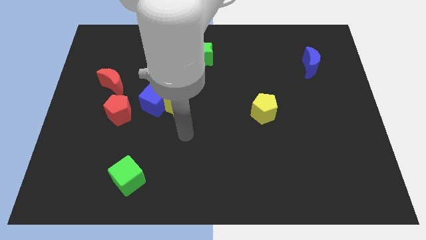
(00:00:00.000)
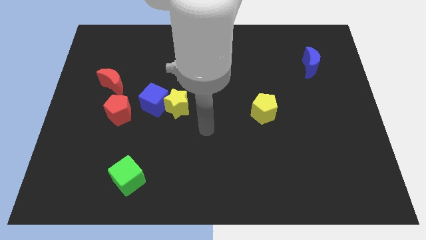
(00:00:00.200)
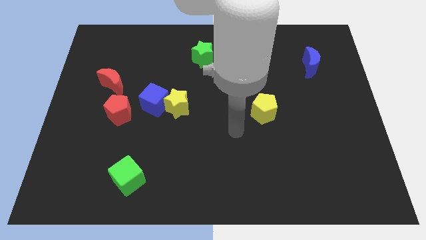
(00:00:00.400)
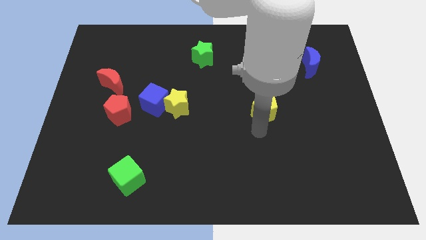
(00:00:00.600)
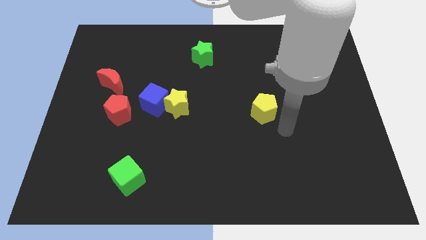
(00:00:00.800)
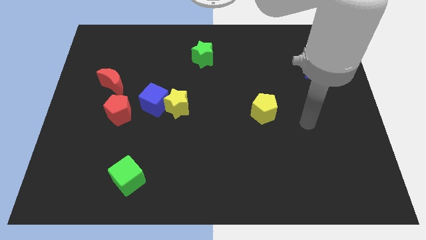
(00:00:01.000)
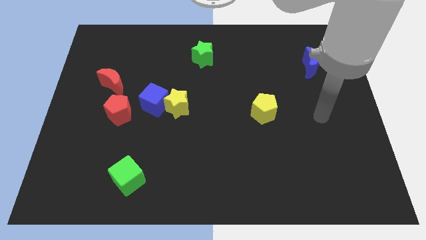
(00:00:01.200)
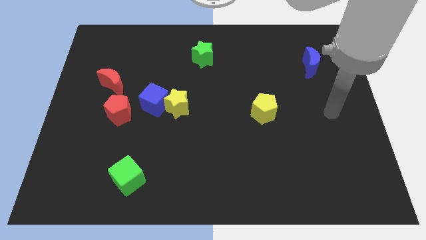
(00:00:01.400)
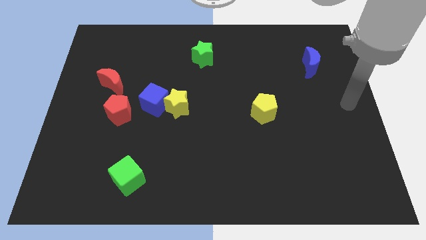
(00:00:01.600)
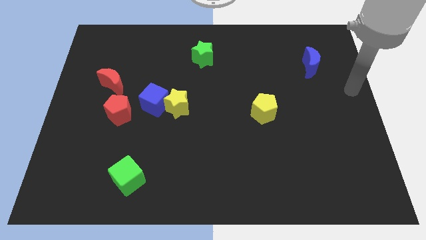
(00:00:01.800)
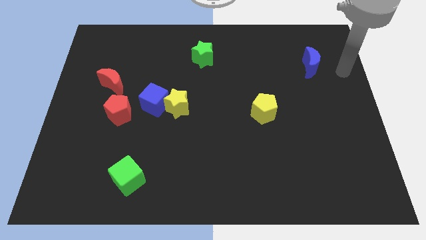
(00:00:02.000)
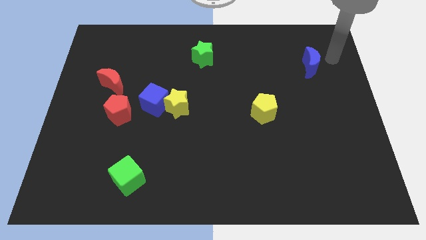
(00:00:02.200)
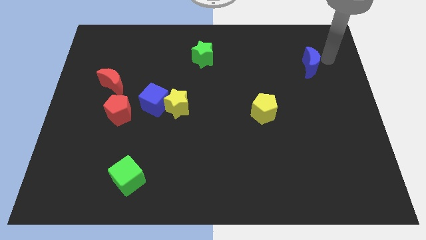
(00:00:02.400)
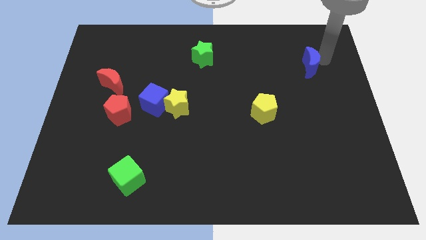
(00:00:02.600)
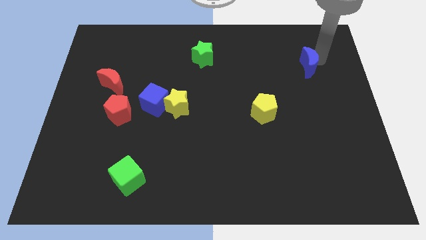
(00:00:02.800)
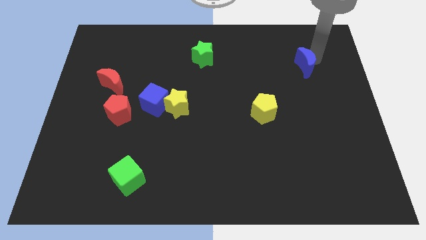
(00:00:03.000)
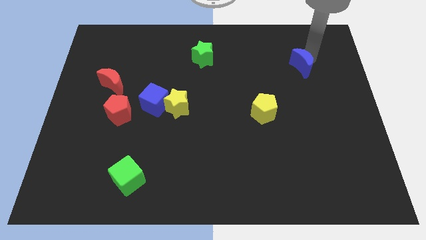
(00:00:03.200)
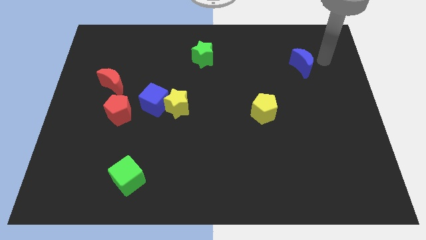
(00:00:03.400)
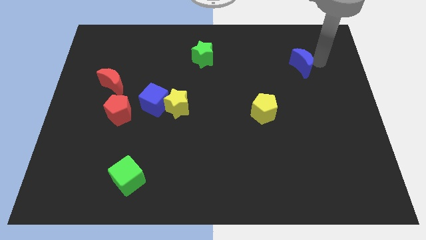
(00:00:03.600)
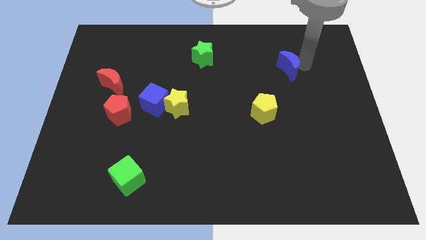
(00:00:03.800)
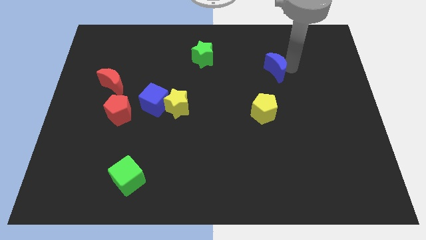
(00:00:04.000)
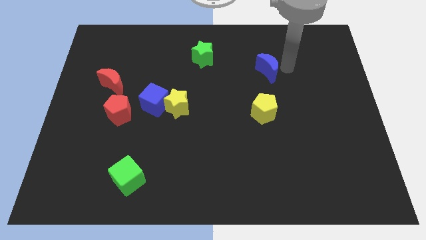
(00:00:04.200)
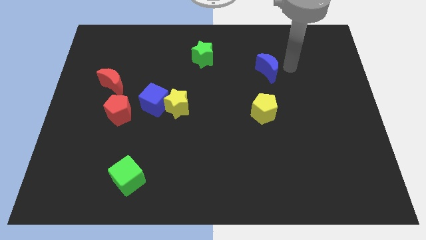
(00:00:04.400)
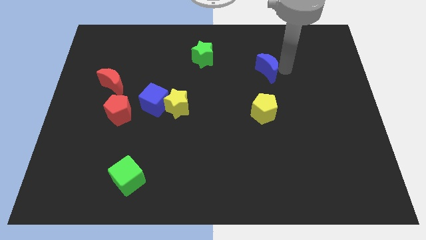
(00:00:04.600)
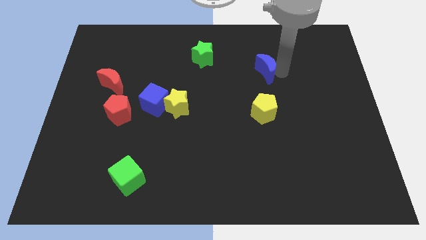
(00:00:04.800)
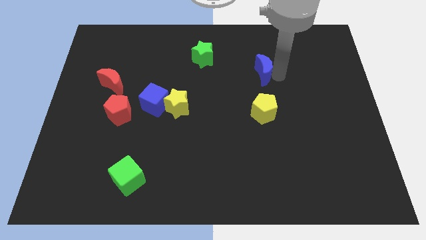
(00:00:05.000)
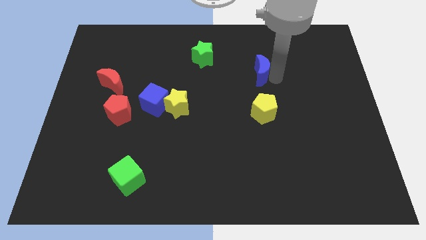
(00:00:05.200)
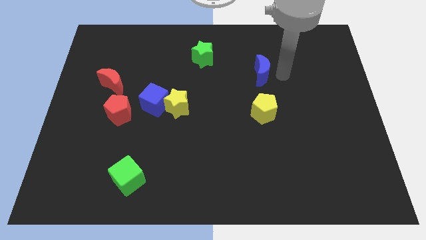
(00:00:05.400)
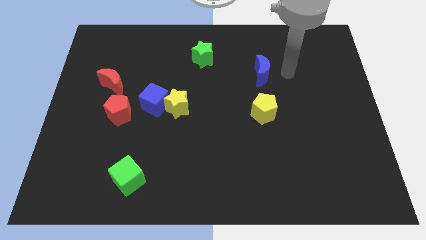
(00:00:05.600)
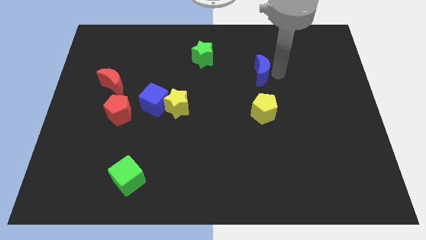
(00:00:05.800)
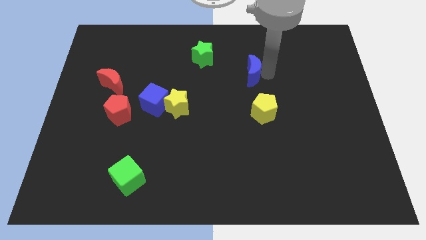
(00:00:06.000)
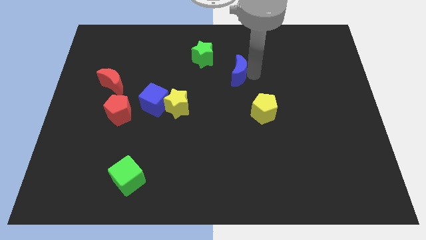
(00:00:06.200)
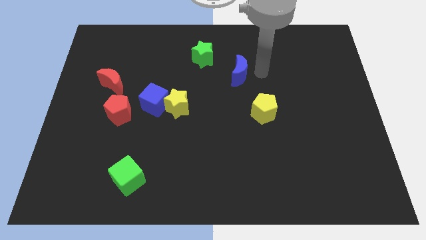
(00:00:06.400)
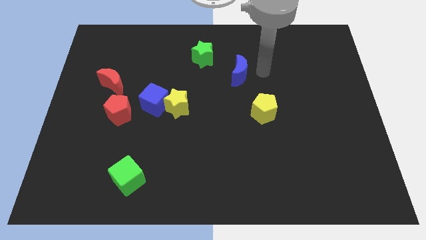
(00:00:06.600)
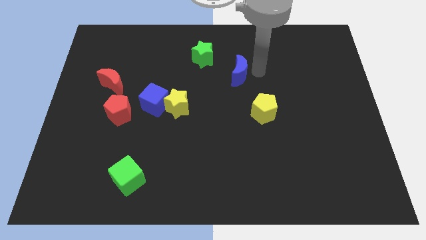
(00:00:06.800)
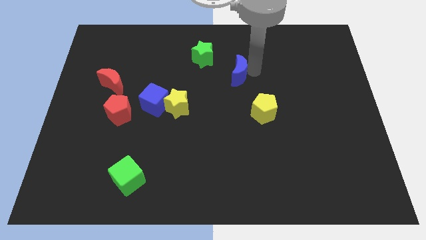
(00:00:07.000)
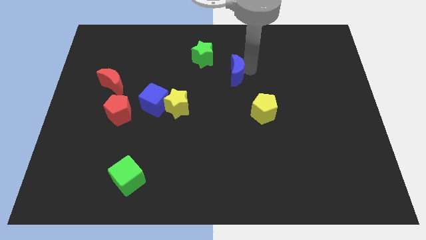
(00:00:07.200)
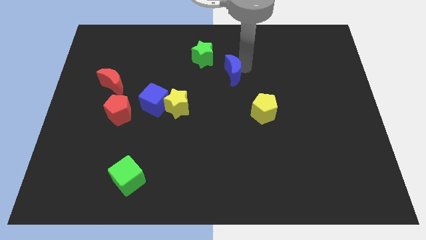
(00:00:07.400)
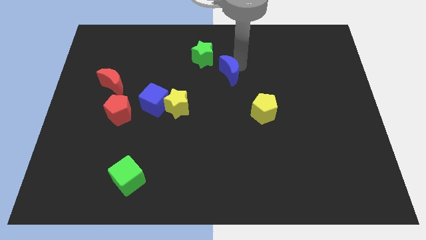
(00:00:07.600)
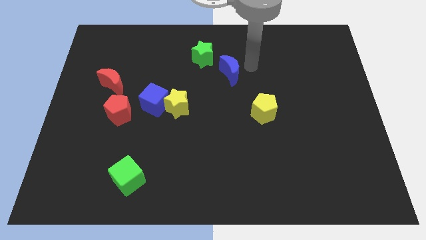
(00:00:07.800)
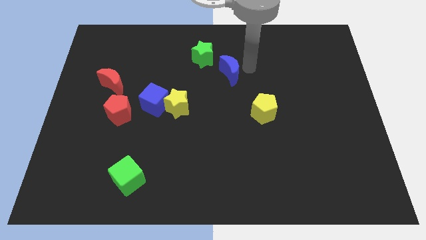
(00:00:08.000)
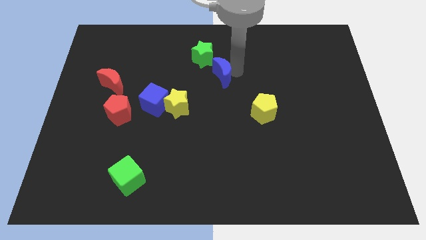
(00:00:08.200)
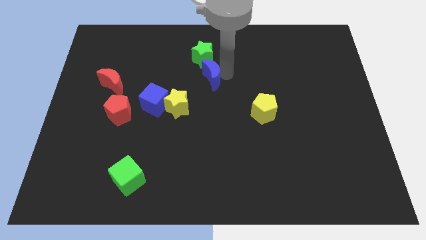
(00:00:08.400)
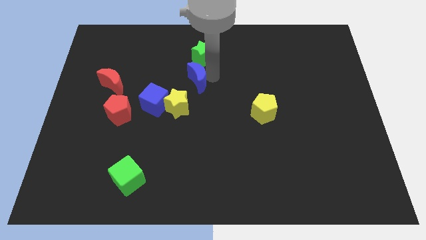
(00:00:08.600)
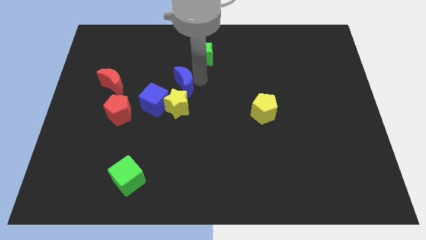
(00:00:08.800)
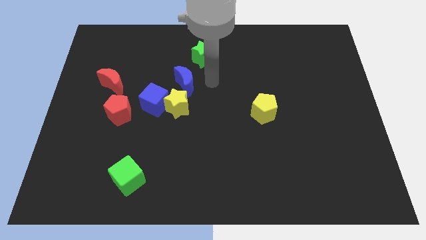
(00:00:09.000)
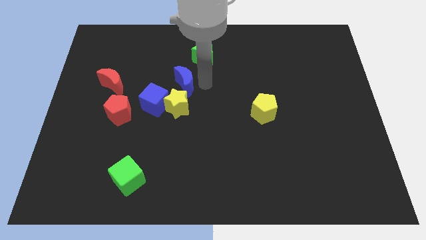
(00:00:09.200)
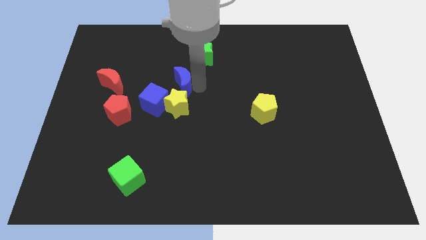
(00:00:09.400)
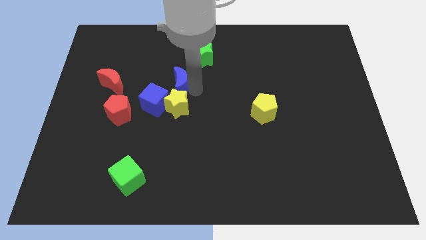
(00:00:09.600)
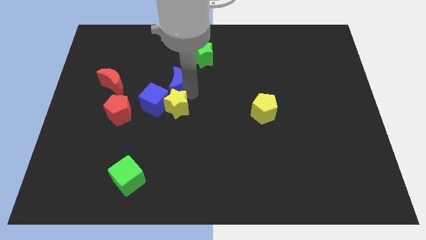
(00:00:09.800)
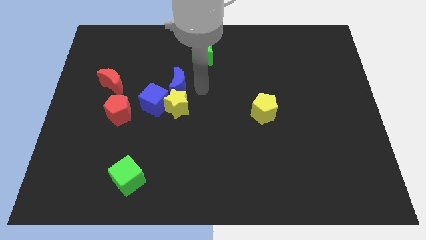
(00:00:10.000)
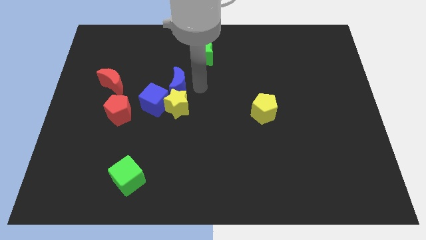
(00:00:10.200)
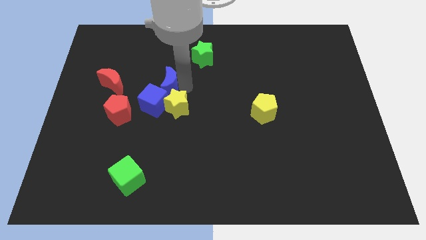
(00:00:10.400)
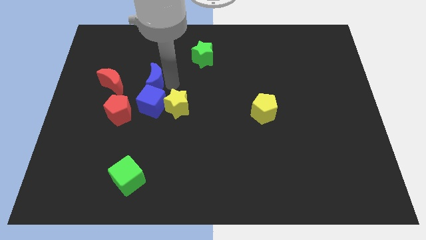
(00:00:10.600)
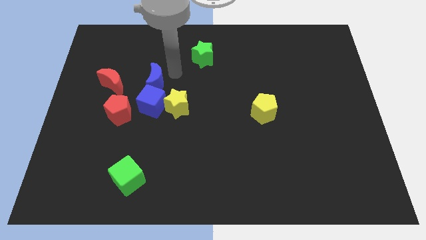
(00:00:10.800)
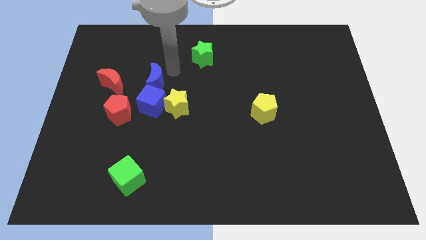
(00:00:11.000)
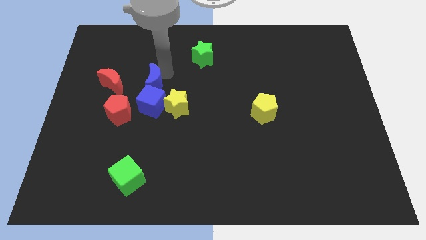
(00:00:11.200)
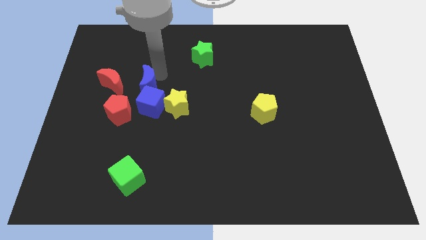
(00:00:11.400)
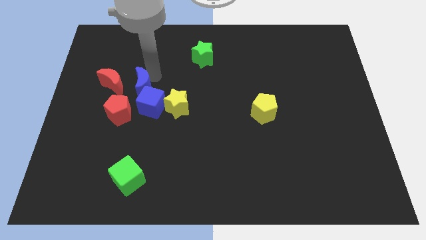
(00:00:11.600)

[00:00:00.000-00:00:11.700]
push the blue moon diagonally down and to the right of the red moon

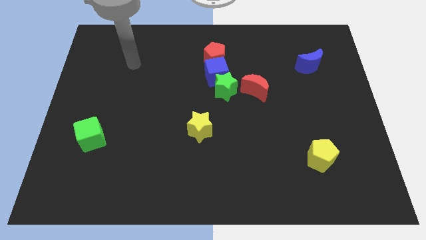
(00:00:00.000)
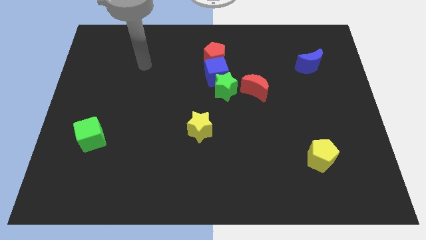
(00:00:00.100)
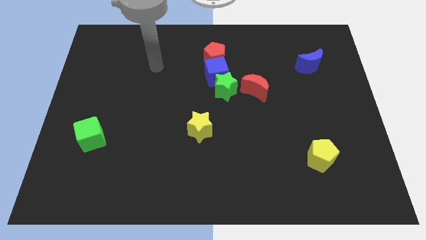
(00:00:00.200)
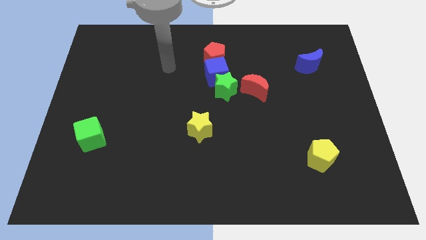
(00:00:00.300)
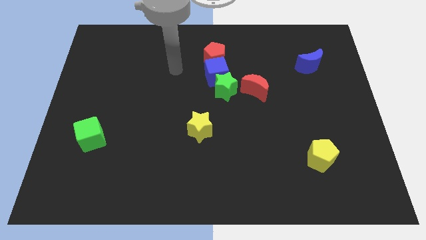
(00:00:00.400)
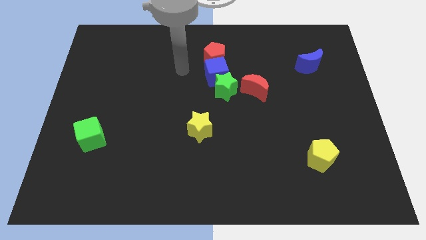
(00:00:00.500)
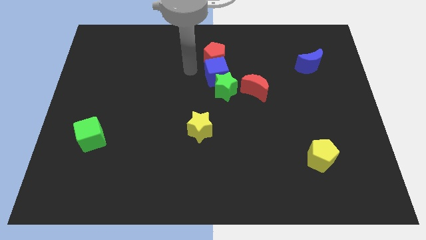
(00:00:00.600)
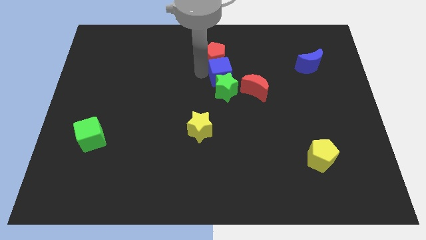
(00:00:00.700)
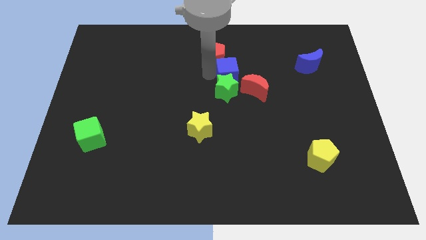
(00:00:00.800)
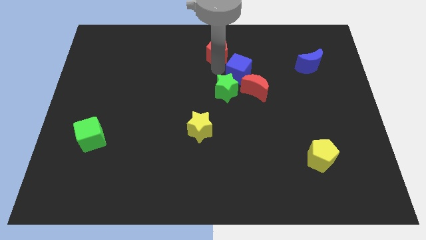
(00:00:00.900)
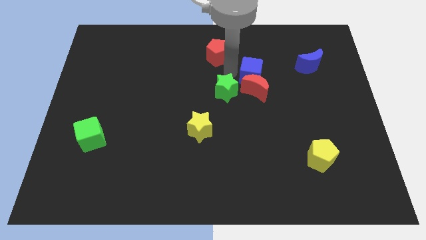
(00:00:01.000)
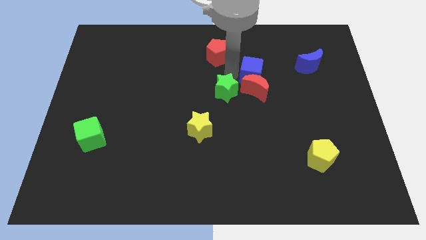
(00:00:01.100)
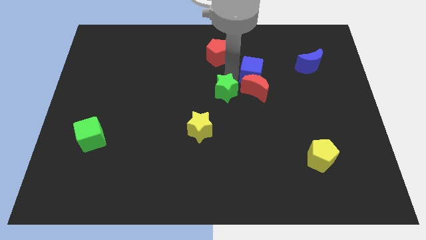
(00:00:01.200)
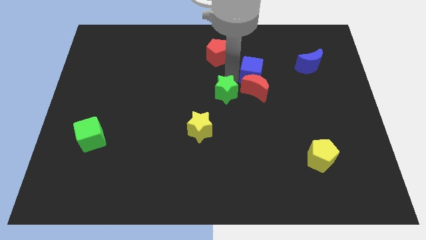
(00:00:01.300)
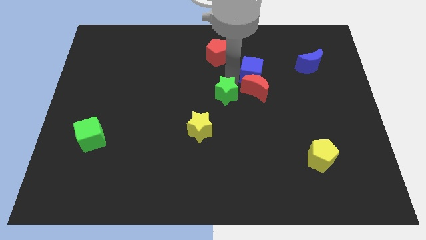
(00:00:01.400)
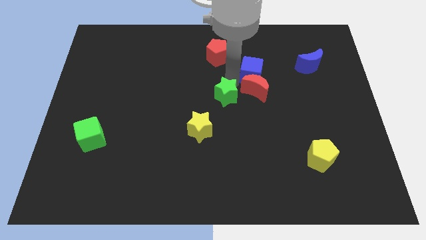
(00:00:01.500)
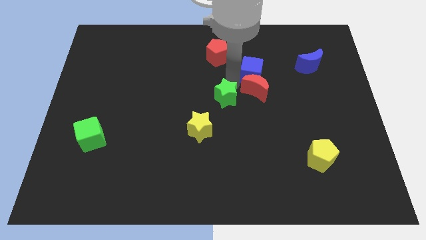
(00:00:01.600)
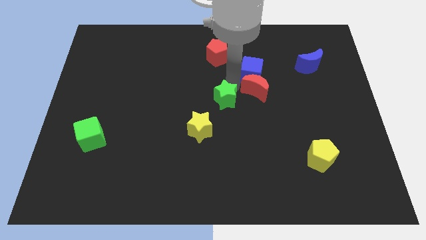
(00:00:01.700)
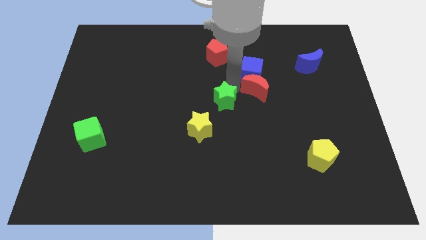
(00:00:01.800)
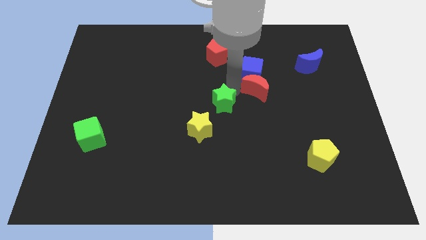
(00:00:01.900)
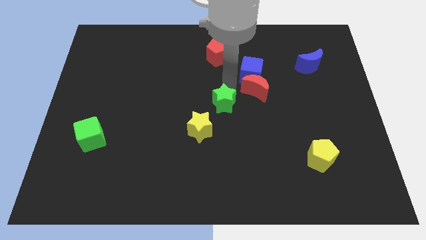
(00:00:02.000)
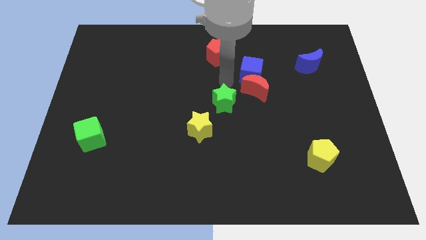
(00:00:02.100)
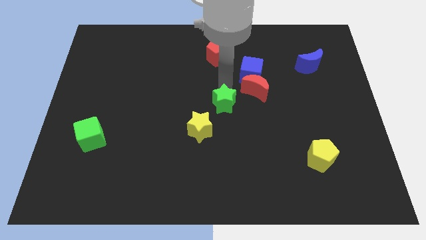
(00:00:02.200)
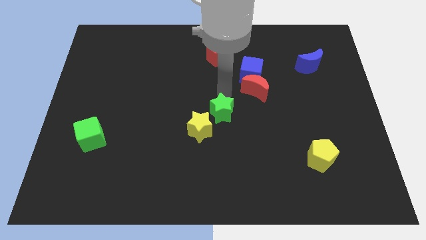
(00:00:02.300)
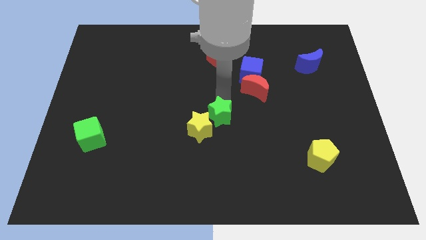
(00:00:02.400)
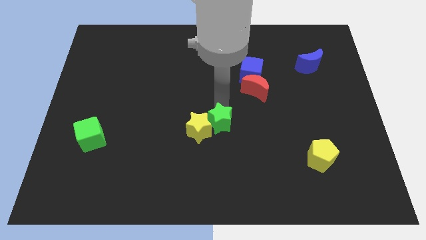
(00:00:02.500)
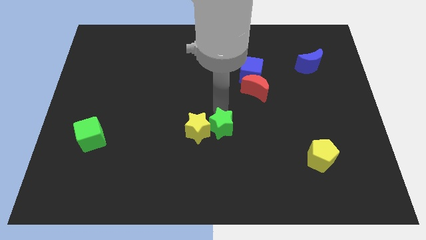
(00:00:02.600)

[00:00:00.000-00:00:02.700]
put the green star to the bottom right of the yellow star
